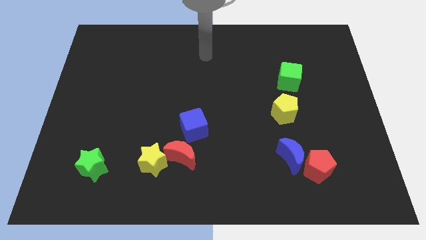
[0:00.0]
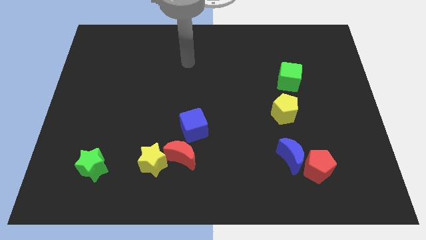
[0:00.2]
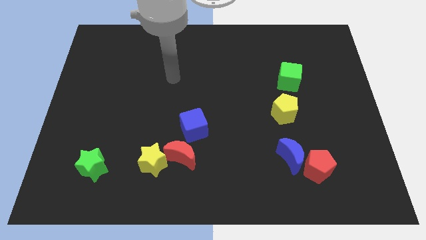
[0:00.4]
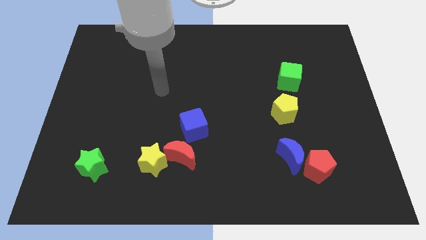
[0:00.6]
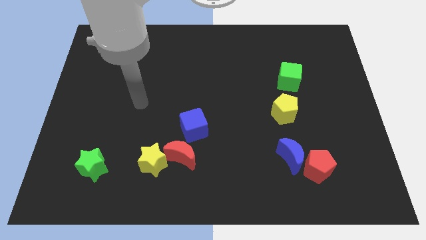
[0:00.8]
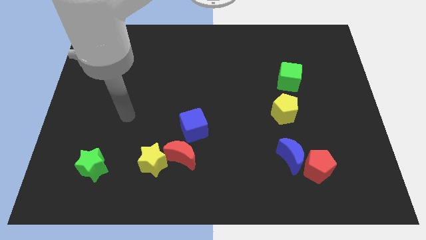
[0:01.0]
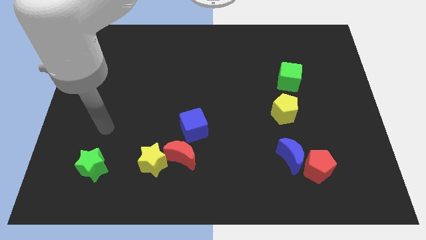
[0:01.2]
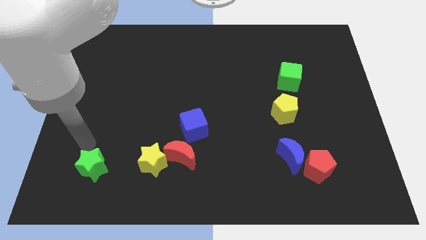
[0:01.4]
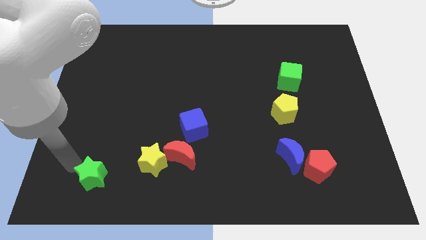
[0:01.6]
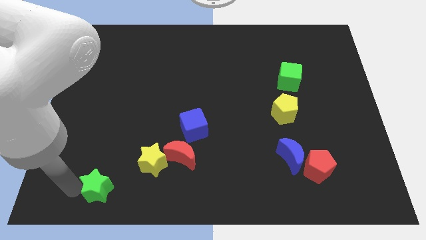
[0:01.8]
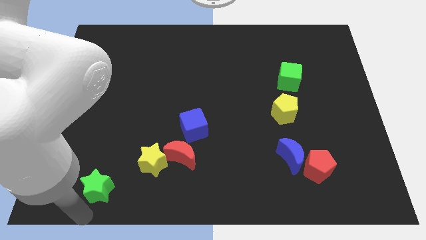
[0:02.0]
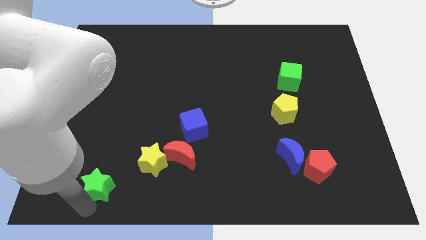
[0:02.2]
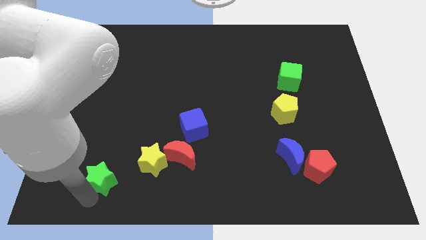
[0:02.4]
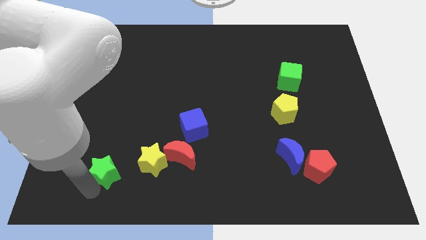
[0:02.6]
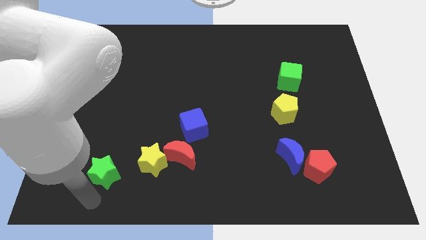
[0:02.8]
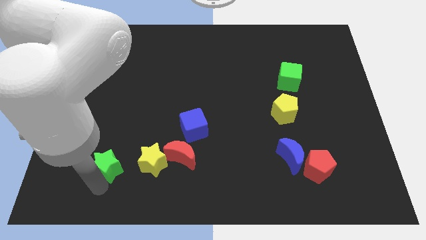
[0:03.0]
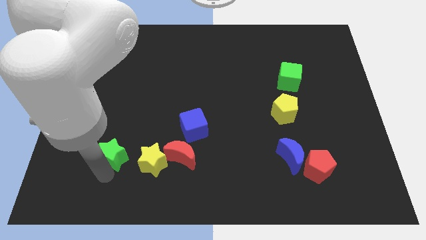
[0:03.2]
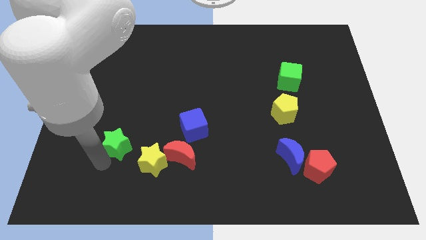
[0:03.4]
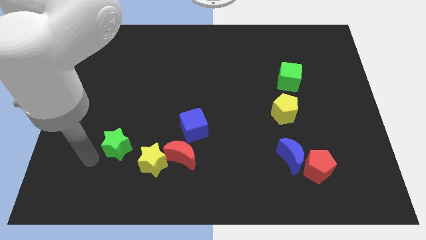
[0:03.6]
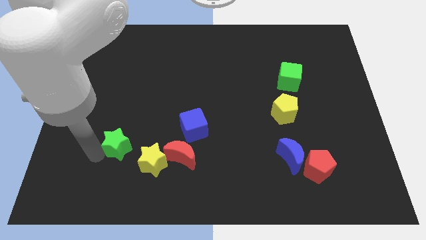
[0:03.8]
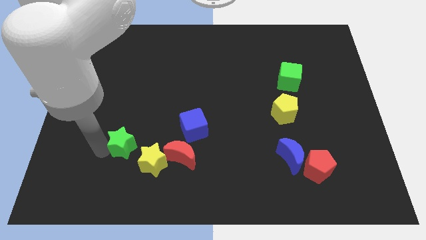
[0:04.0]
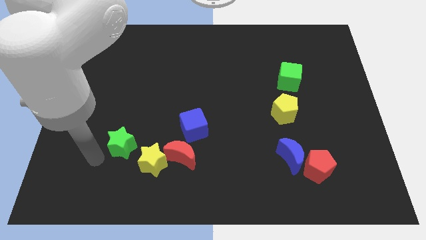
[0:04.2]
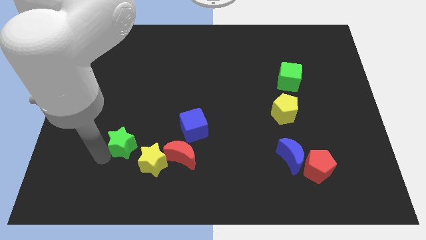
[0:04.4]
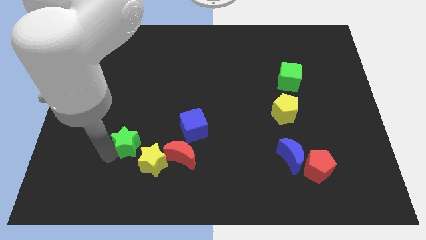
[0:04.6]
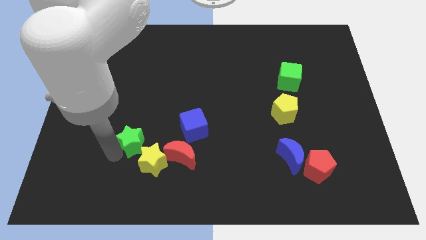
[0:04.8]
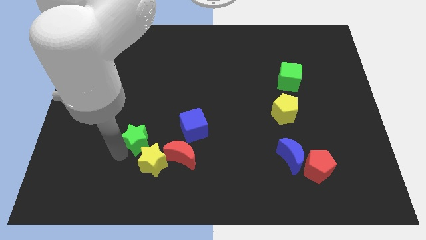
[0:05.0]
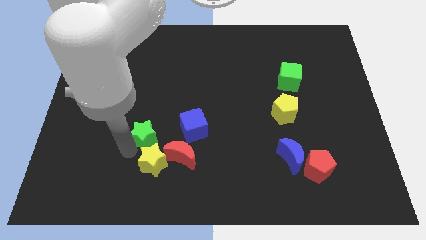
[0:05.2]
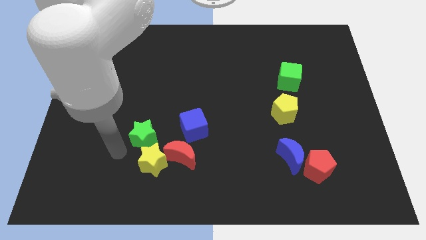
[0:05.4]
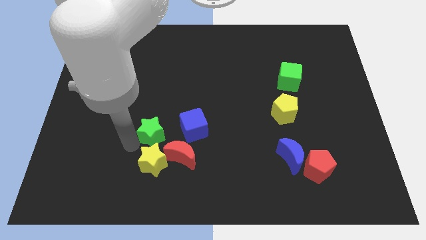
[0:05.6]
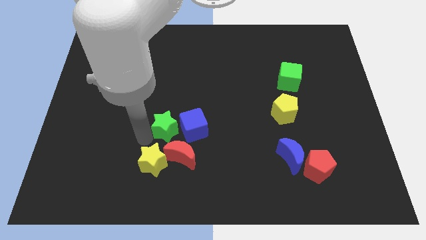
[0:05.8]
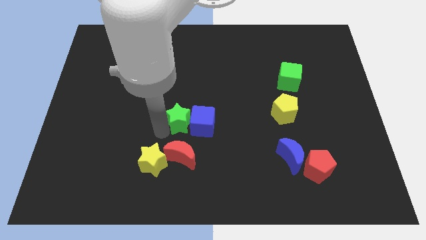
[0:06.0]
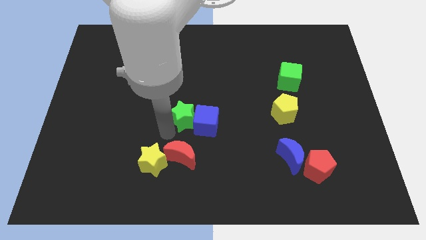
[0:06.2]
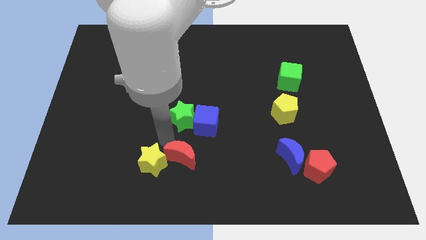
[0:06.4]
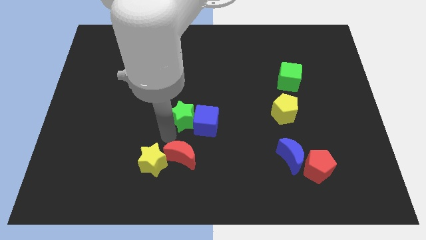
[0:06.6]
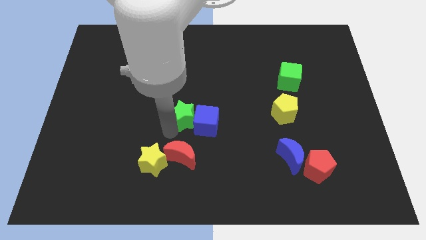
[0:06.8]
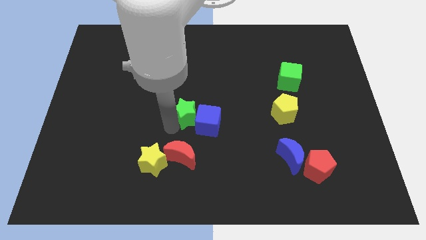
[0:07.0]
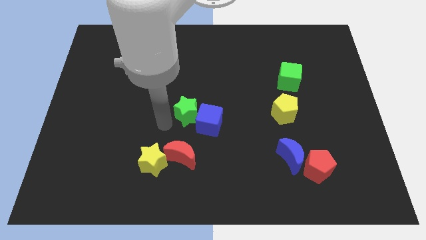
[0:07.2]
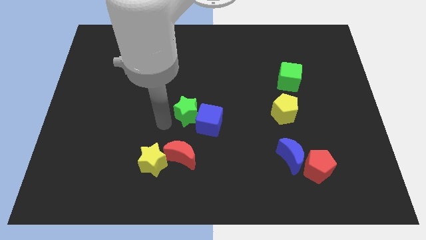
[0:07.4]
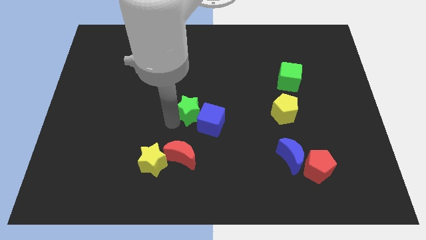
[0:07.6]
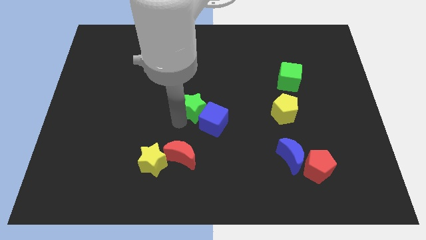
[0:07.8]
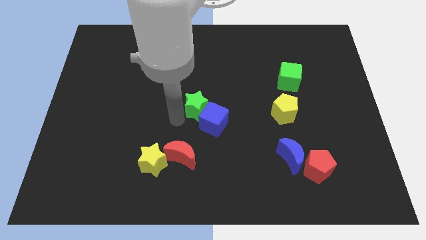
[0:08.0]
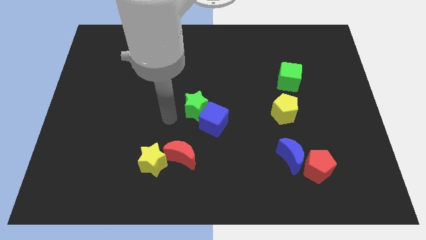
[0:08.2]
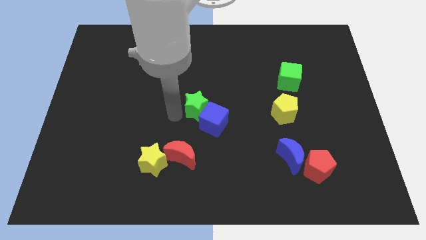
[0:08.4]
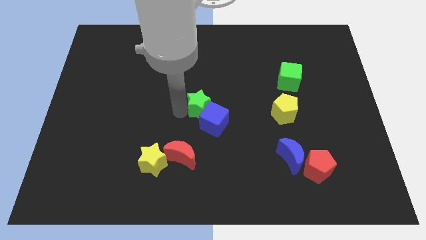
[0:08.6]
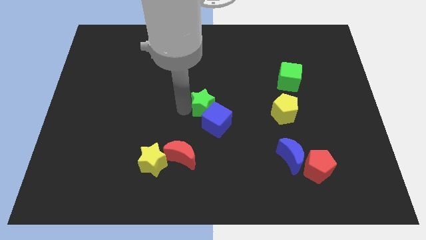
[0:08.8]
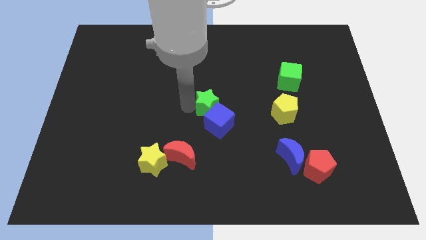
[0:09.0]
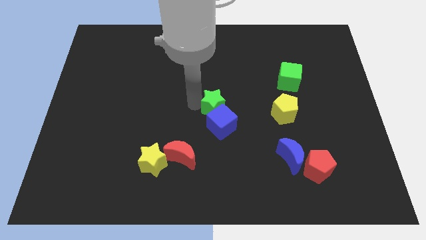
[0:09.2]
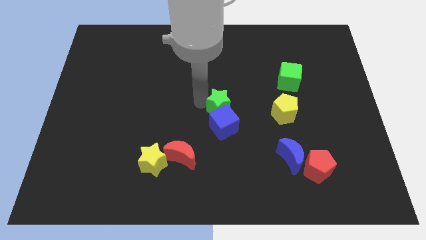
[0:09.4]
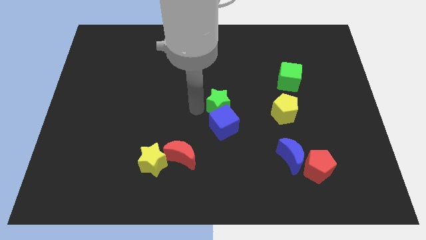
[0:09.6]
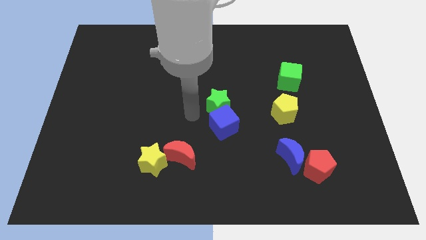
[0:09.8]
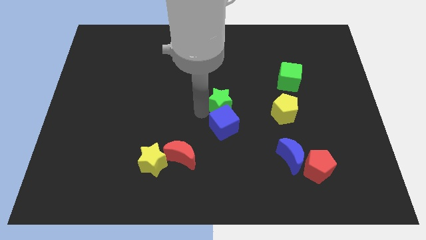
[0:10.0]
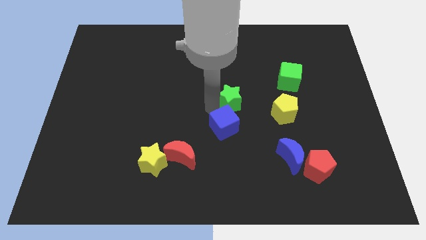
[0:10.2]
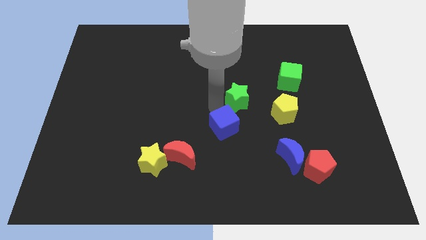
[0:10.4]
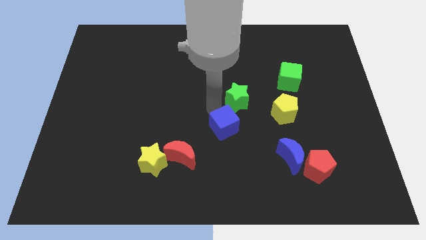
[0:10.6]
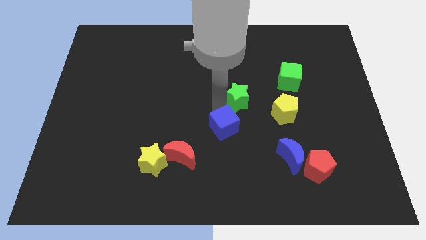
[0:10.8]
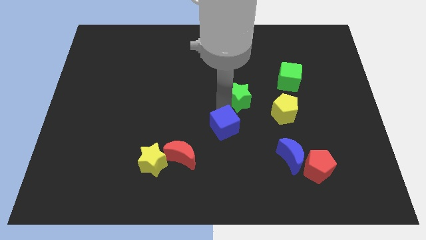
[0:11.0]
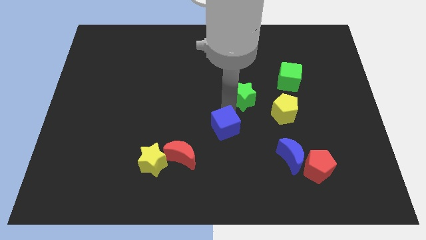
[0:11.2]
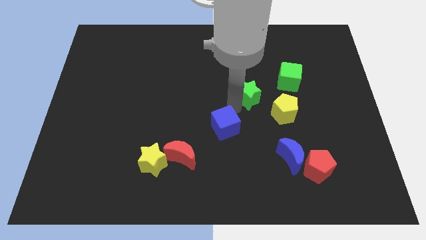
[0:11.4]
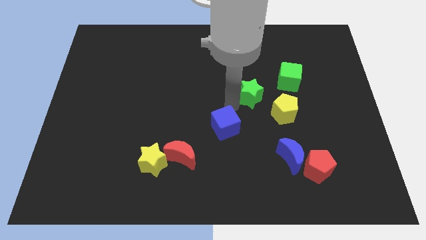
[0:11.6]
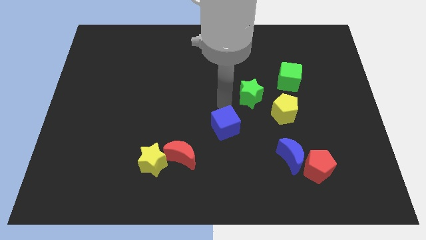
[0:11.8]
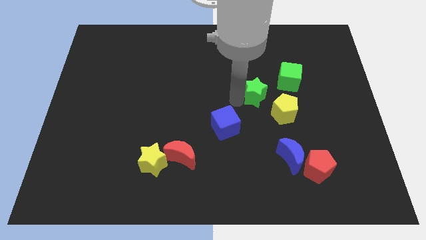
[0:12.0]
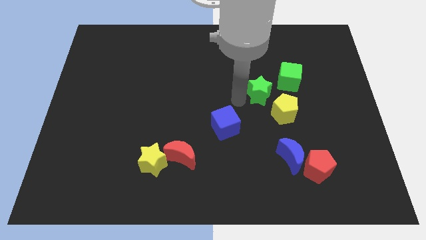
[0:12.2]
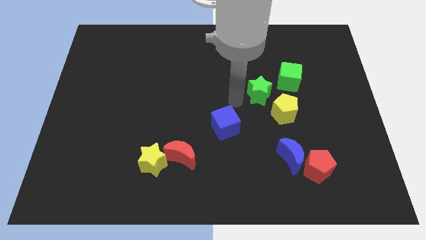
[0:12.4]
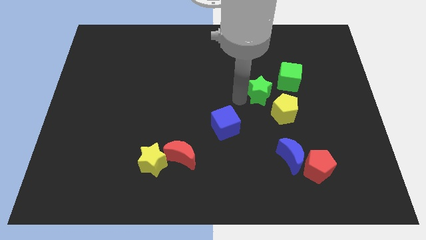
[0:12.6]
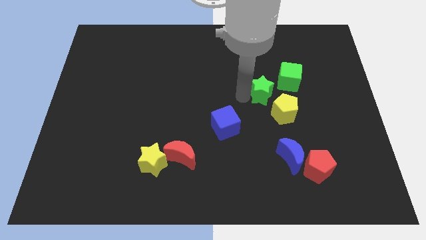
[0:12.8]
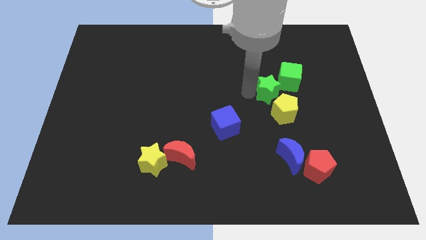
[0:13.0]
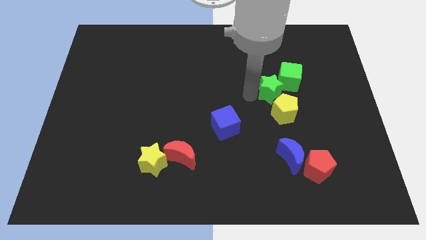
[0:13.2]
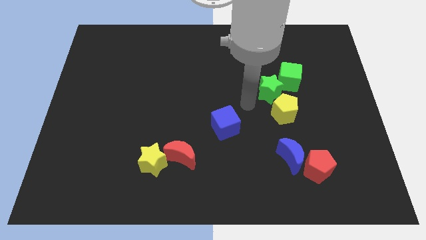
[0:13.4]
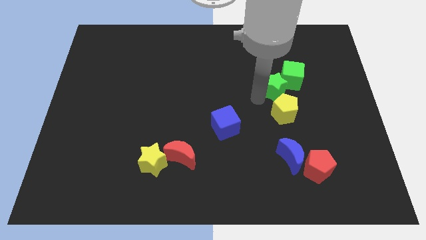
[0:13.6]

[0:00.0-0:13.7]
slide the green star towards the green cube
